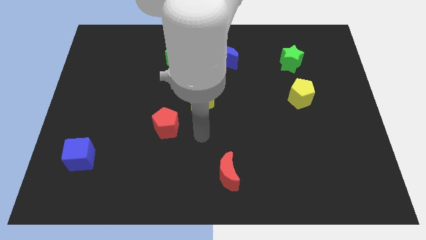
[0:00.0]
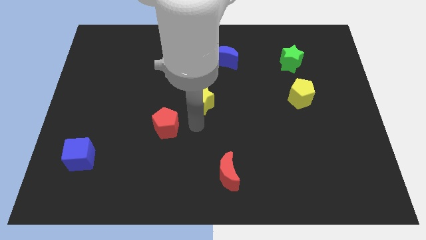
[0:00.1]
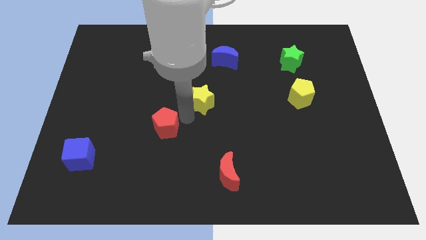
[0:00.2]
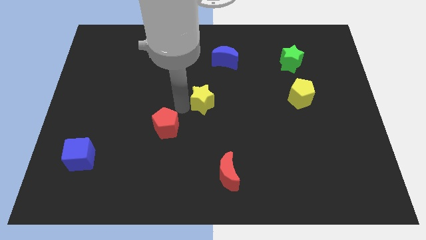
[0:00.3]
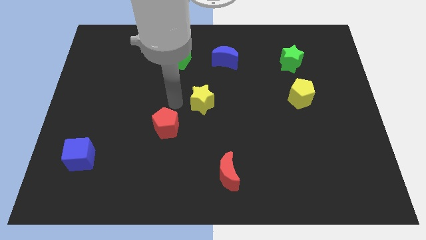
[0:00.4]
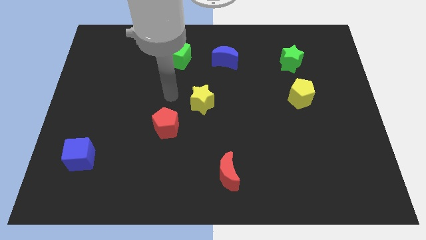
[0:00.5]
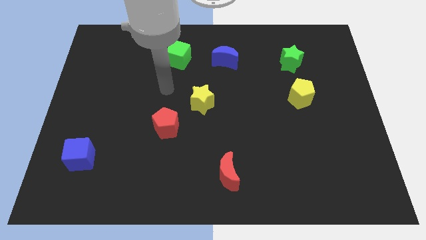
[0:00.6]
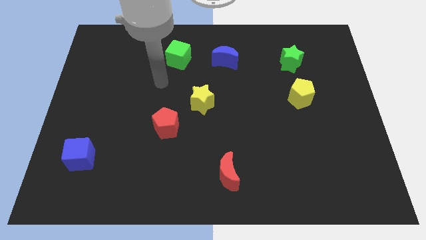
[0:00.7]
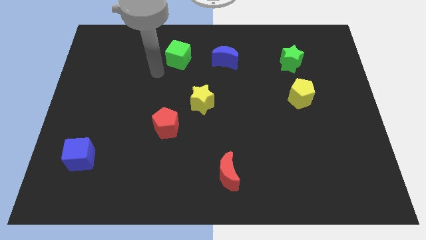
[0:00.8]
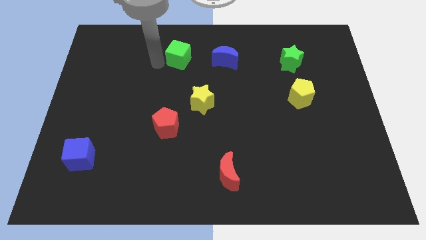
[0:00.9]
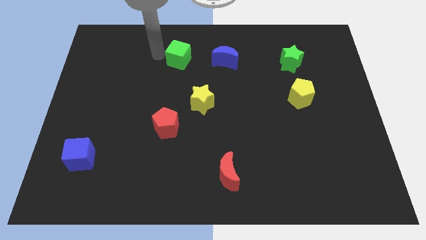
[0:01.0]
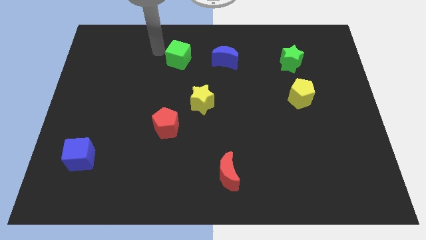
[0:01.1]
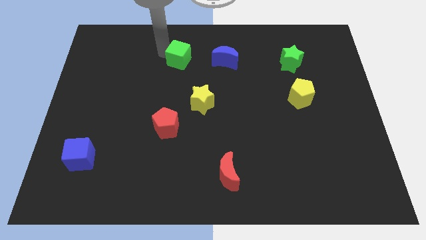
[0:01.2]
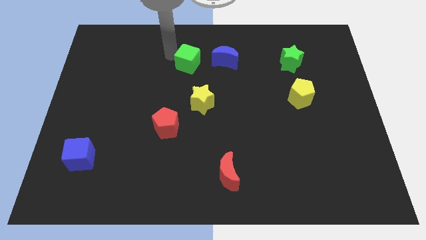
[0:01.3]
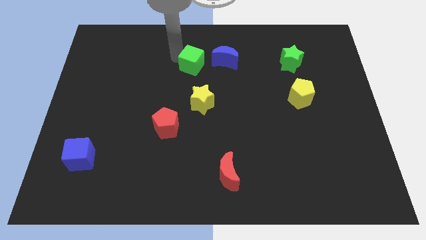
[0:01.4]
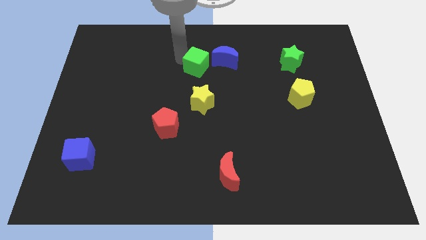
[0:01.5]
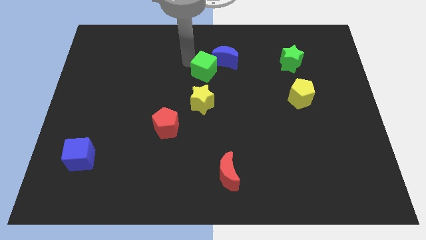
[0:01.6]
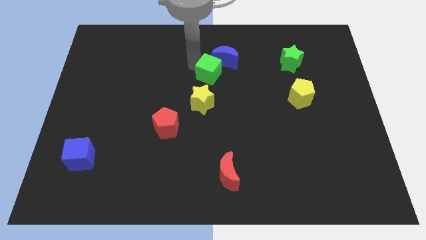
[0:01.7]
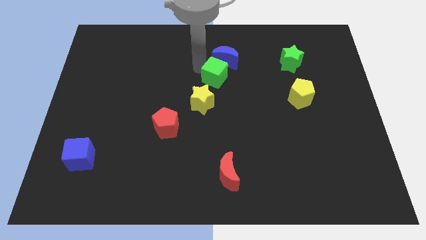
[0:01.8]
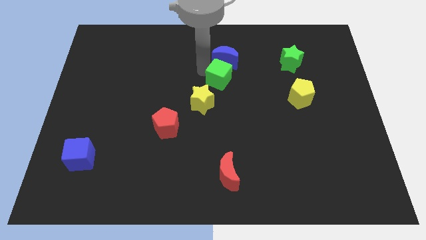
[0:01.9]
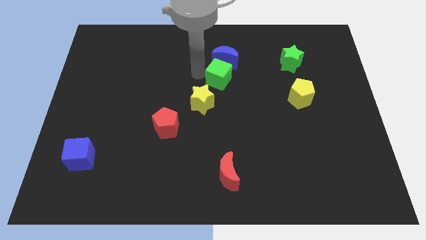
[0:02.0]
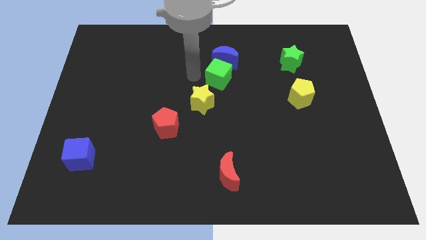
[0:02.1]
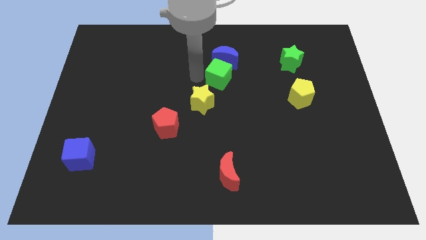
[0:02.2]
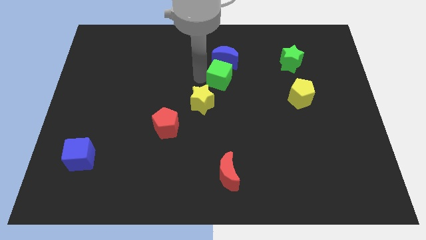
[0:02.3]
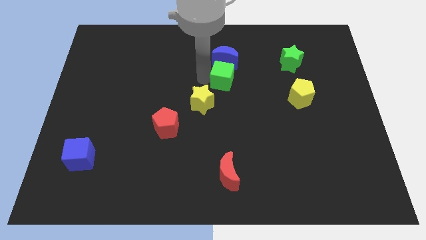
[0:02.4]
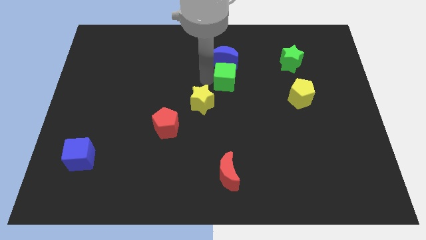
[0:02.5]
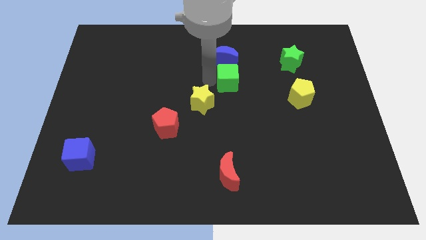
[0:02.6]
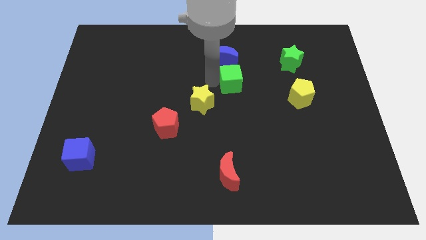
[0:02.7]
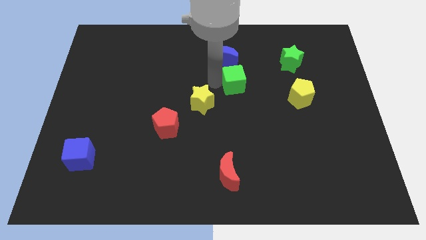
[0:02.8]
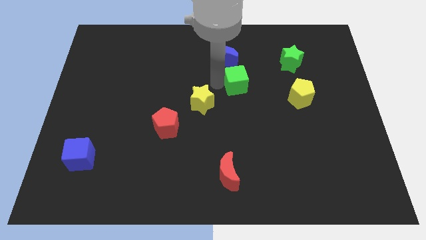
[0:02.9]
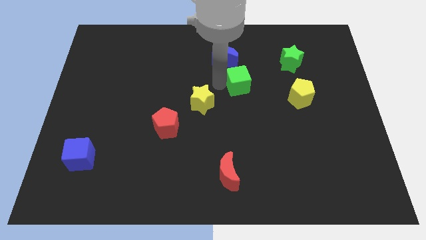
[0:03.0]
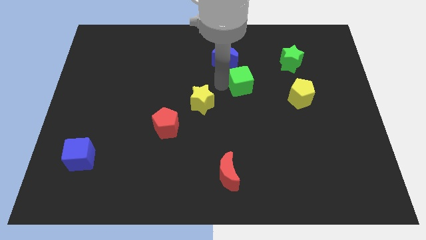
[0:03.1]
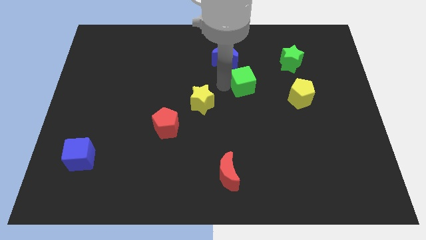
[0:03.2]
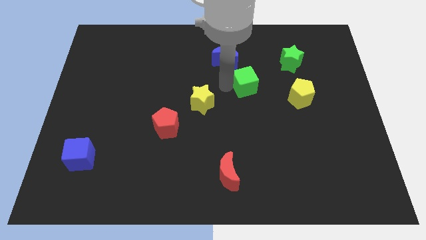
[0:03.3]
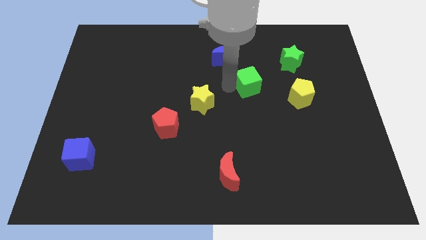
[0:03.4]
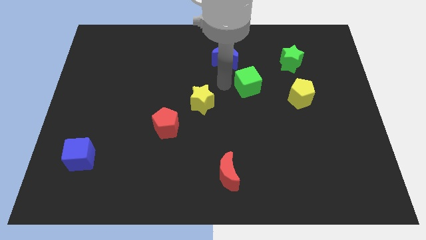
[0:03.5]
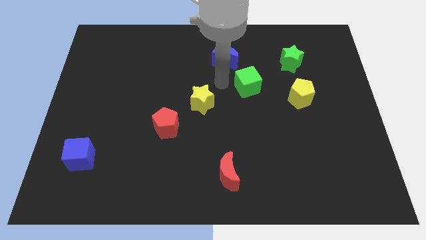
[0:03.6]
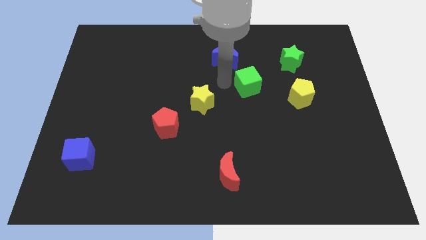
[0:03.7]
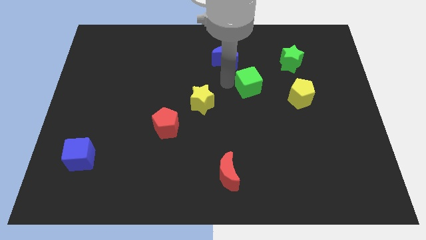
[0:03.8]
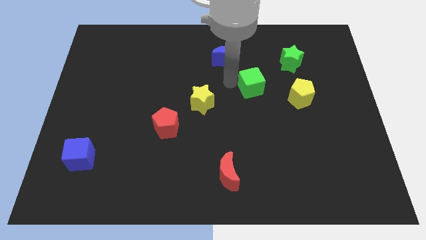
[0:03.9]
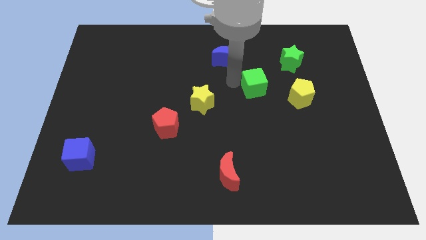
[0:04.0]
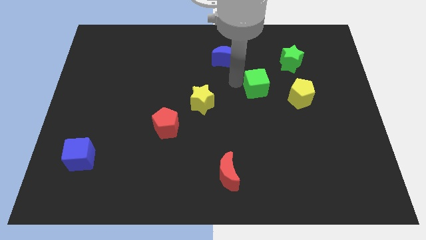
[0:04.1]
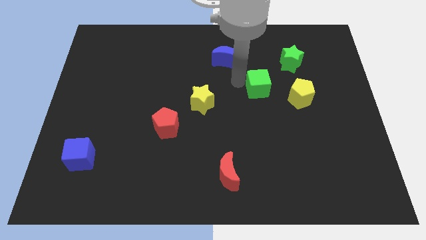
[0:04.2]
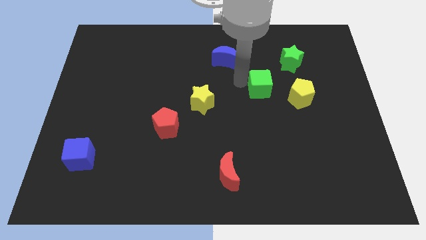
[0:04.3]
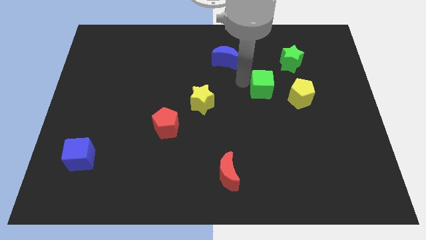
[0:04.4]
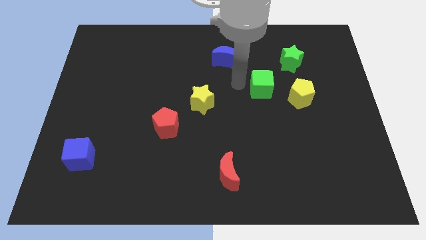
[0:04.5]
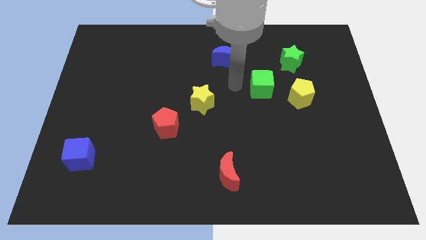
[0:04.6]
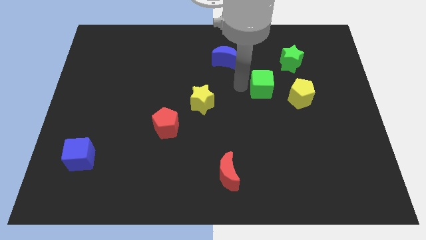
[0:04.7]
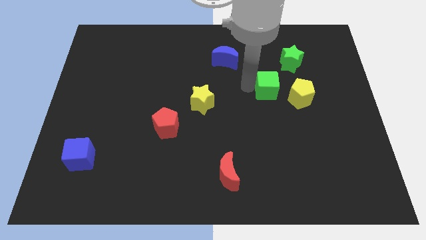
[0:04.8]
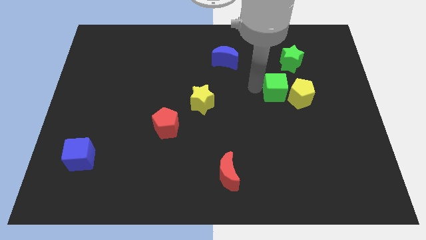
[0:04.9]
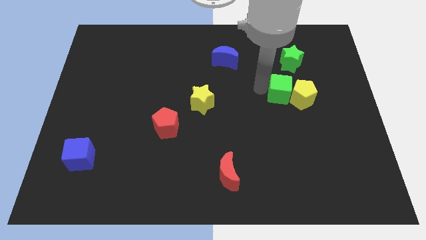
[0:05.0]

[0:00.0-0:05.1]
put the green cube to the yellow pentagon

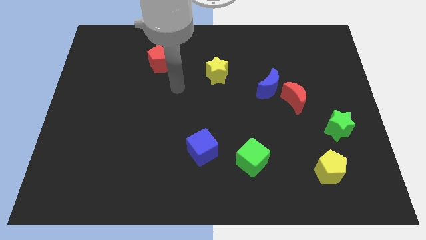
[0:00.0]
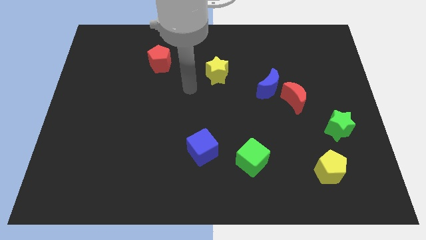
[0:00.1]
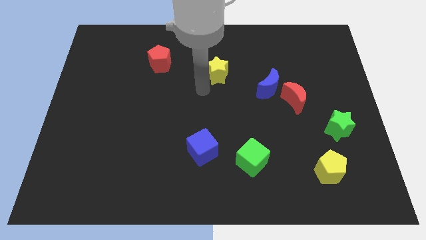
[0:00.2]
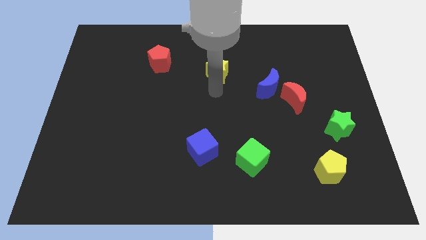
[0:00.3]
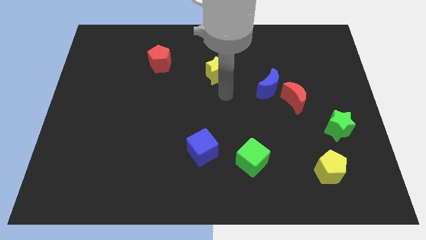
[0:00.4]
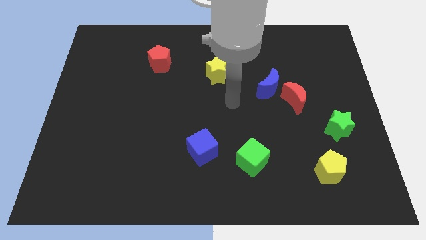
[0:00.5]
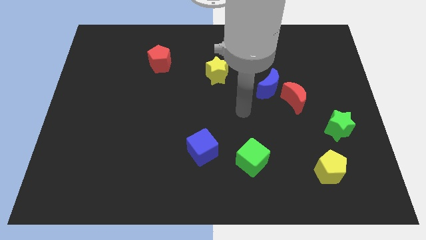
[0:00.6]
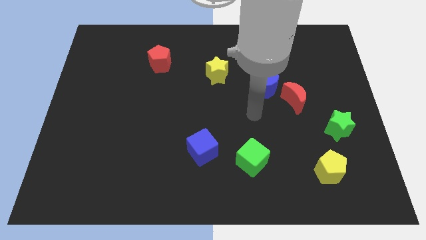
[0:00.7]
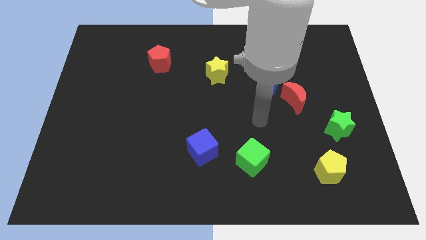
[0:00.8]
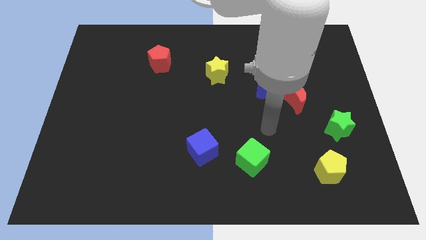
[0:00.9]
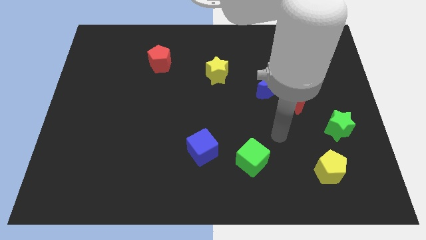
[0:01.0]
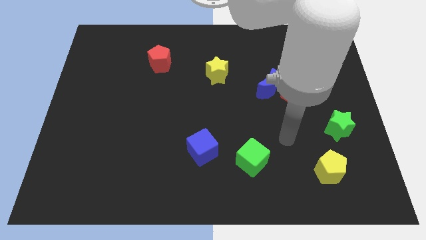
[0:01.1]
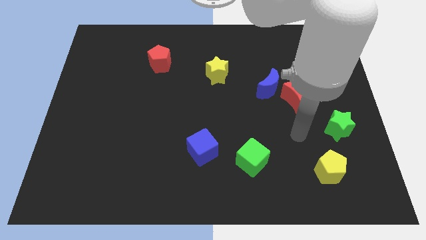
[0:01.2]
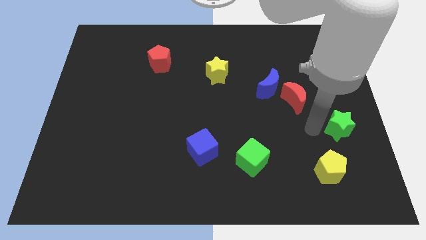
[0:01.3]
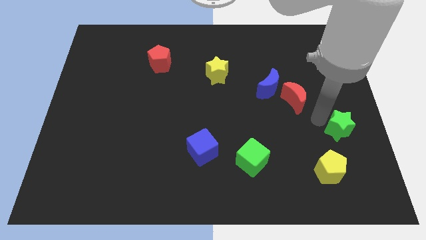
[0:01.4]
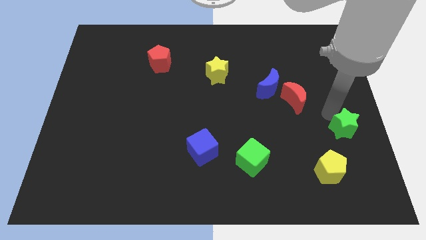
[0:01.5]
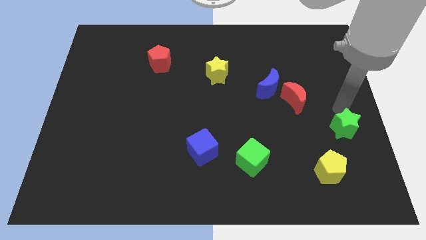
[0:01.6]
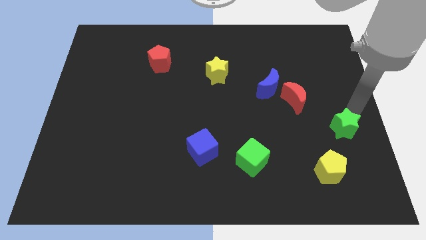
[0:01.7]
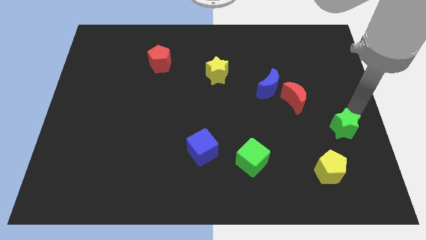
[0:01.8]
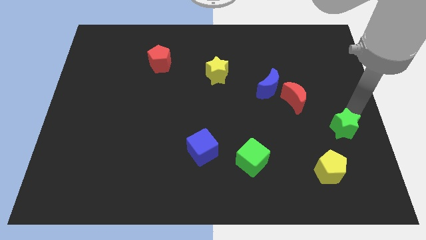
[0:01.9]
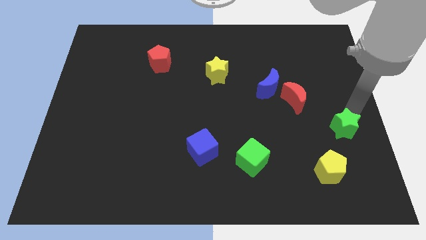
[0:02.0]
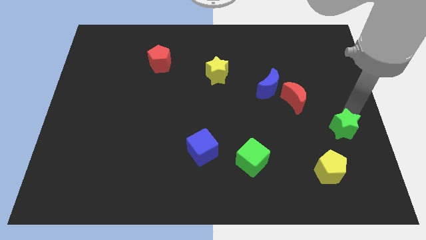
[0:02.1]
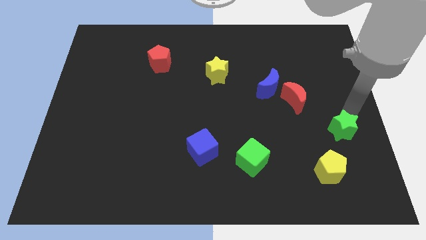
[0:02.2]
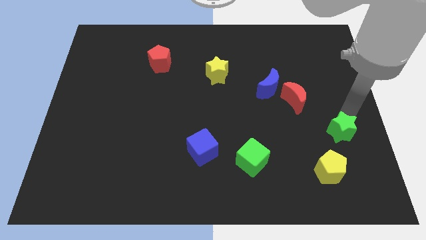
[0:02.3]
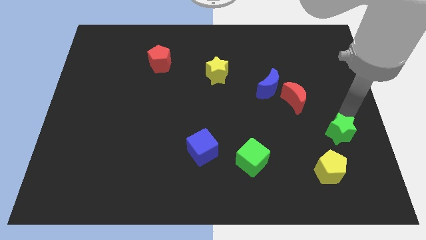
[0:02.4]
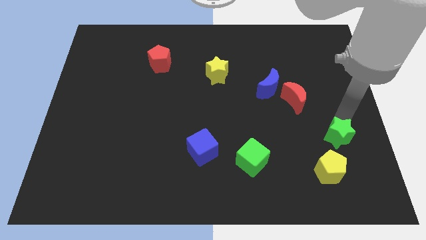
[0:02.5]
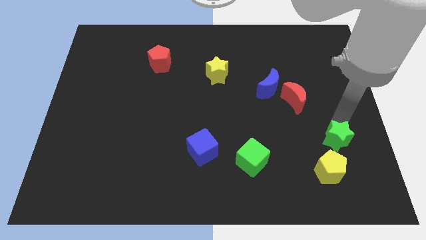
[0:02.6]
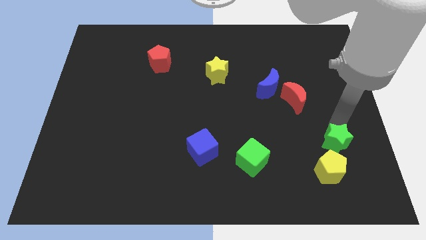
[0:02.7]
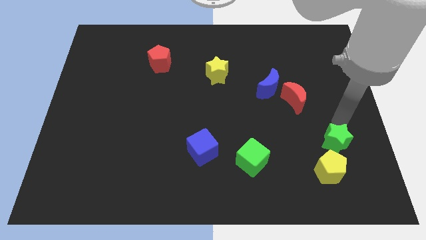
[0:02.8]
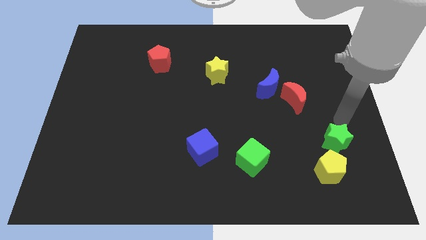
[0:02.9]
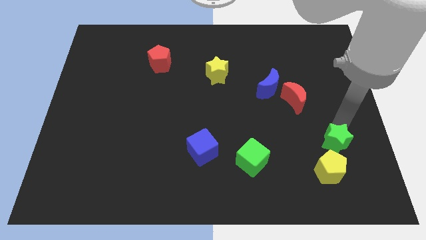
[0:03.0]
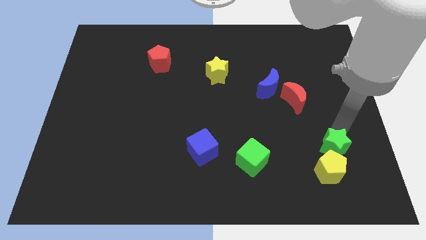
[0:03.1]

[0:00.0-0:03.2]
slide the green star close to the yellow pentagon
